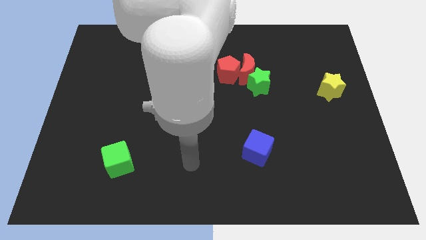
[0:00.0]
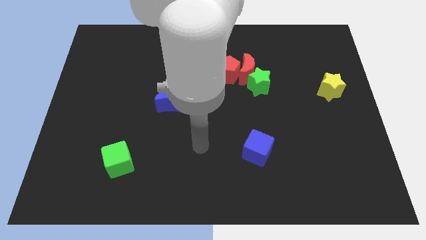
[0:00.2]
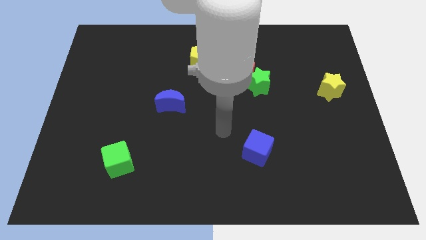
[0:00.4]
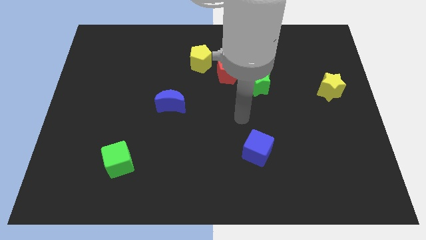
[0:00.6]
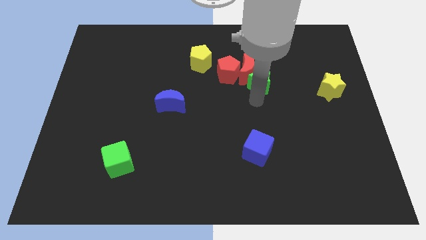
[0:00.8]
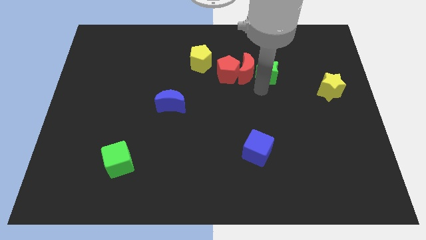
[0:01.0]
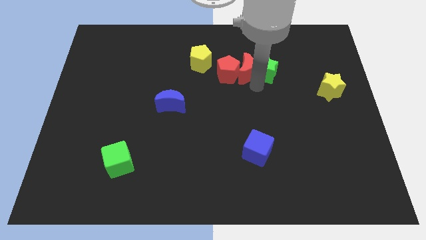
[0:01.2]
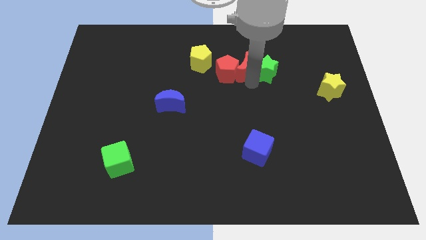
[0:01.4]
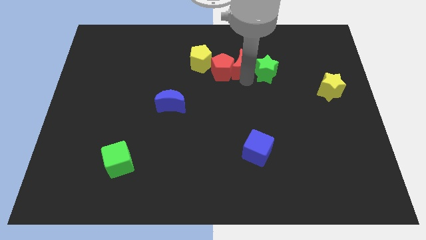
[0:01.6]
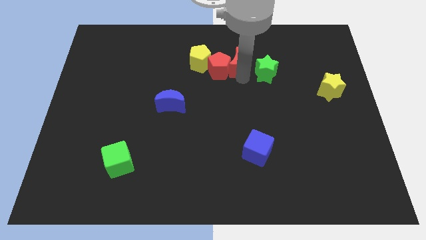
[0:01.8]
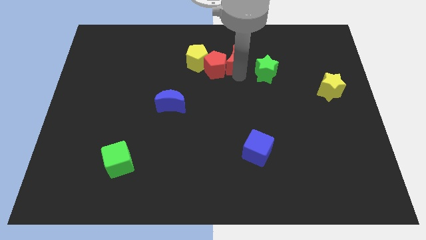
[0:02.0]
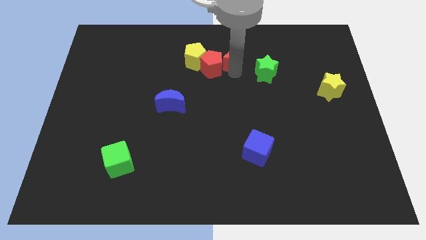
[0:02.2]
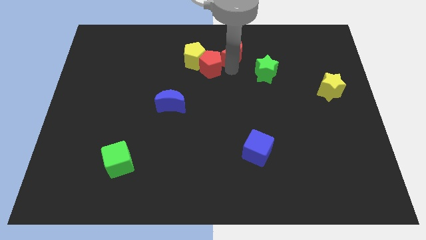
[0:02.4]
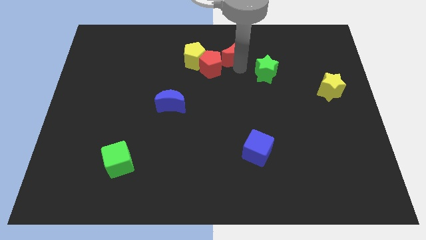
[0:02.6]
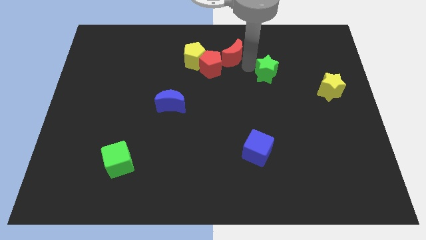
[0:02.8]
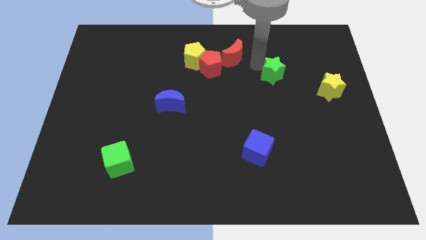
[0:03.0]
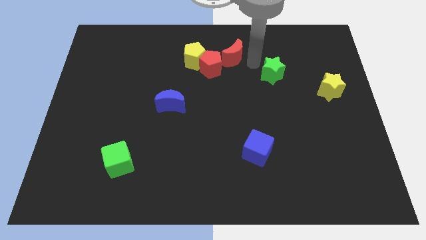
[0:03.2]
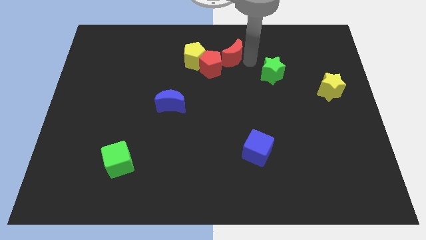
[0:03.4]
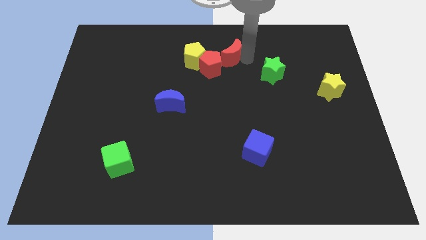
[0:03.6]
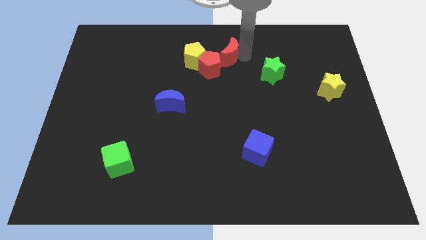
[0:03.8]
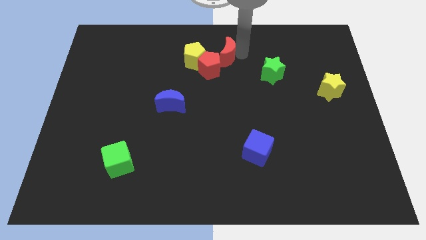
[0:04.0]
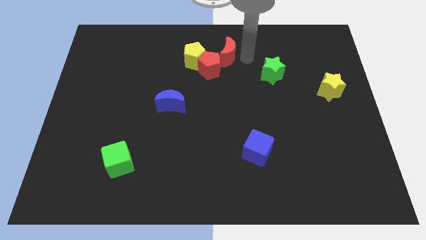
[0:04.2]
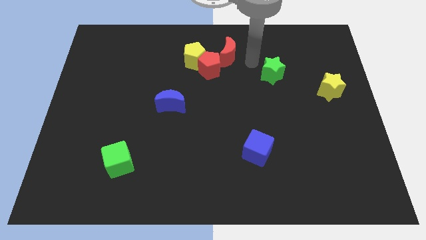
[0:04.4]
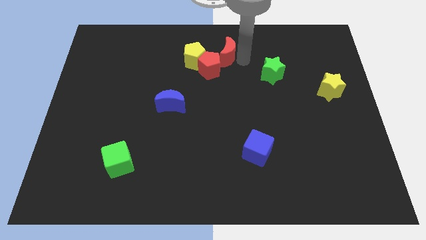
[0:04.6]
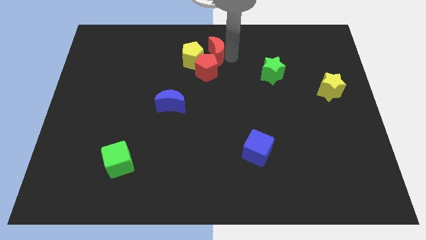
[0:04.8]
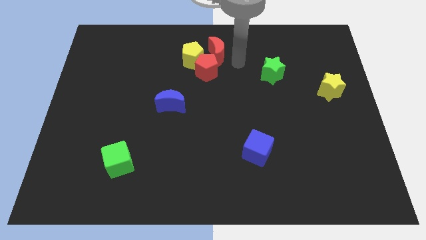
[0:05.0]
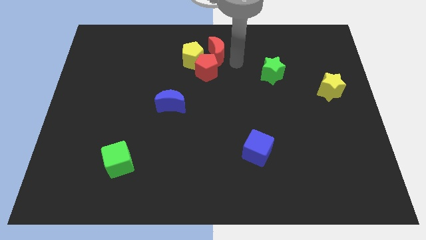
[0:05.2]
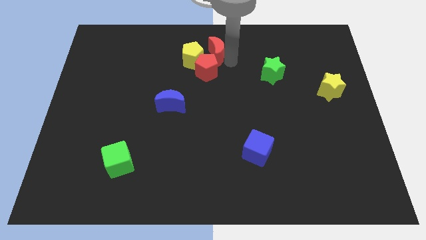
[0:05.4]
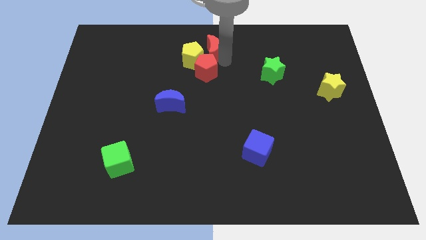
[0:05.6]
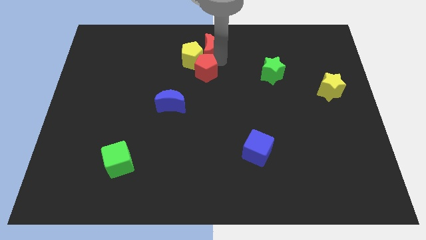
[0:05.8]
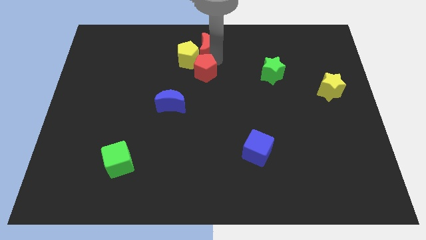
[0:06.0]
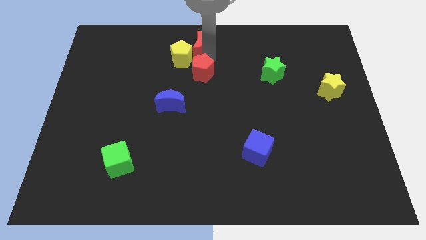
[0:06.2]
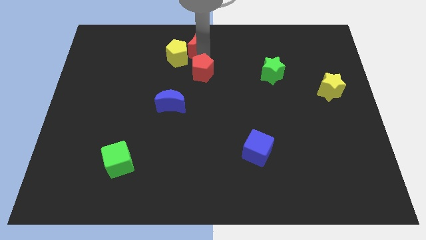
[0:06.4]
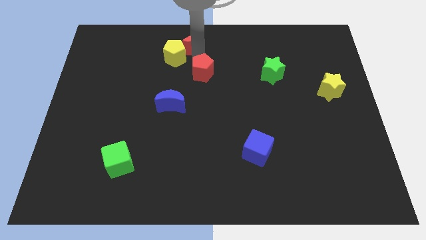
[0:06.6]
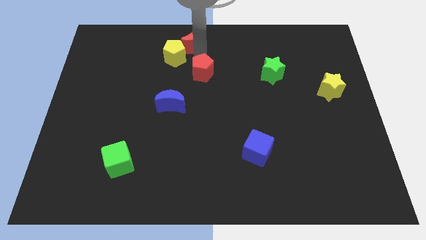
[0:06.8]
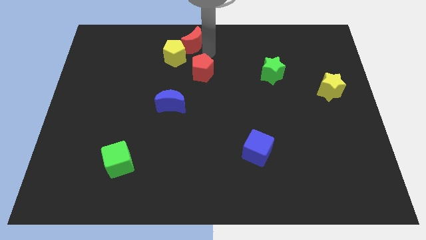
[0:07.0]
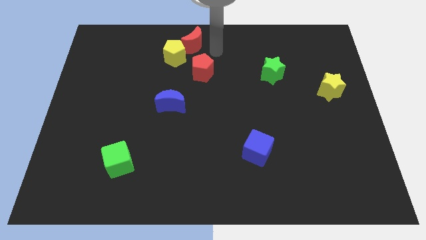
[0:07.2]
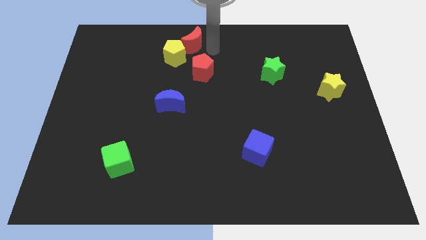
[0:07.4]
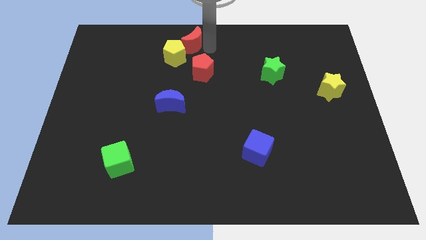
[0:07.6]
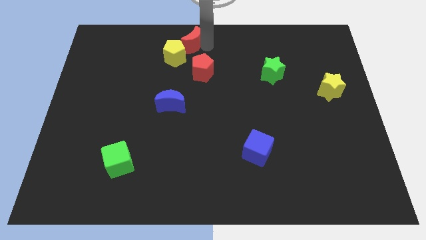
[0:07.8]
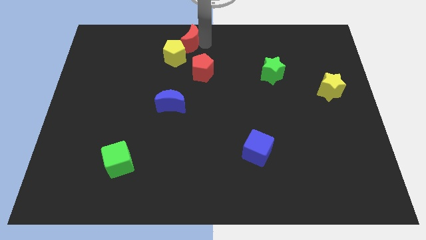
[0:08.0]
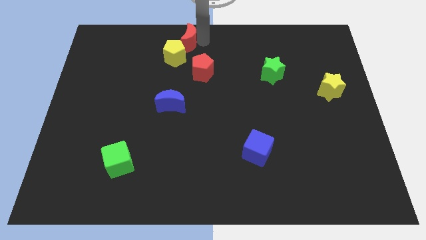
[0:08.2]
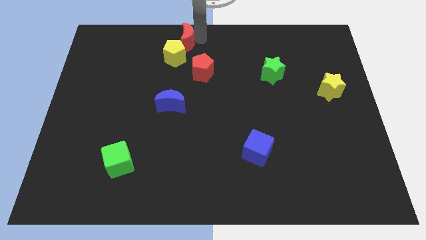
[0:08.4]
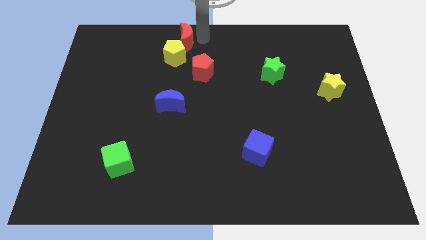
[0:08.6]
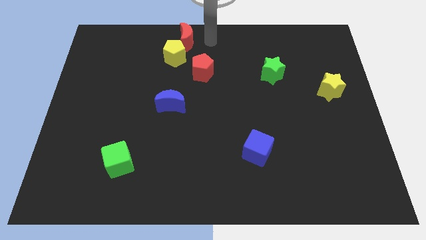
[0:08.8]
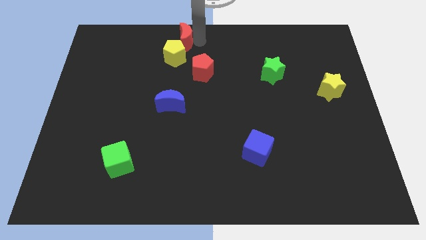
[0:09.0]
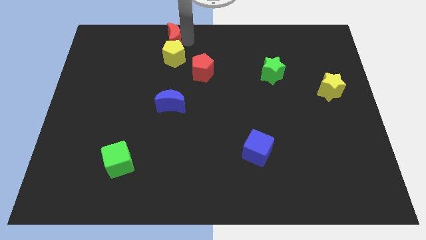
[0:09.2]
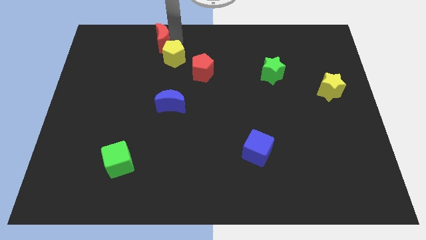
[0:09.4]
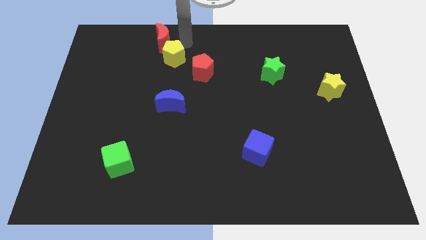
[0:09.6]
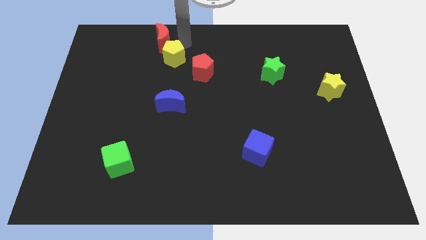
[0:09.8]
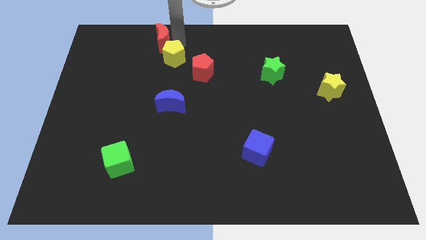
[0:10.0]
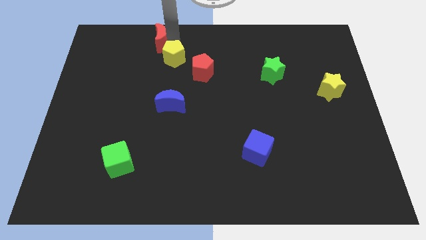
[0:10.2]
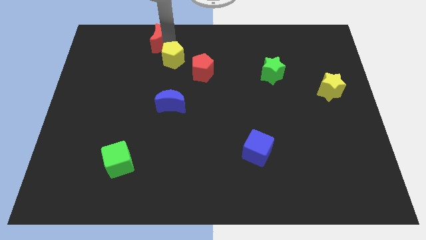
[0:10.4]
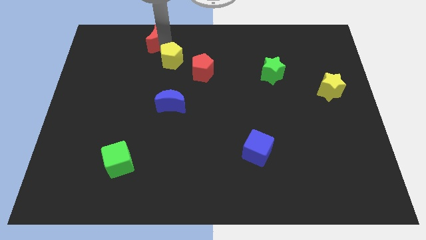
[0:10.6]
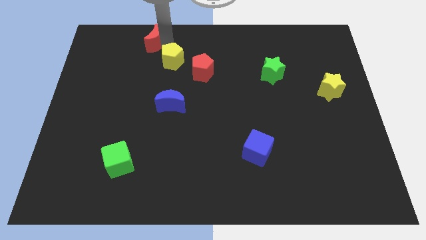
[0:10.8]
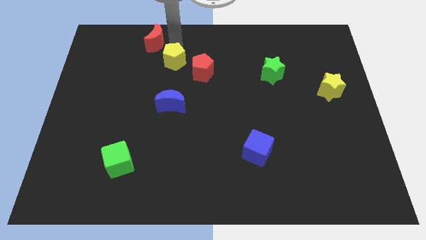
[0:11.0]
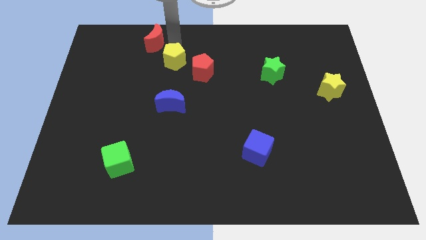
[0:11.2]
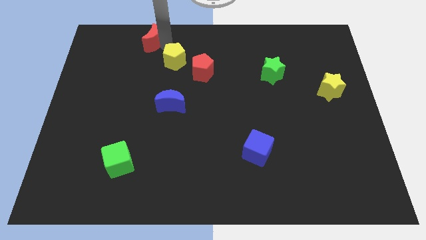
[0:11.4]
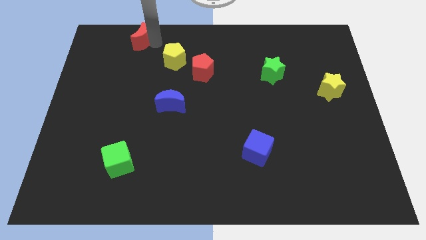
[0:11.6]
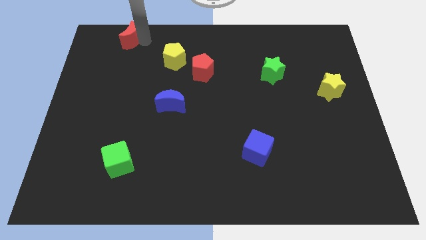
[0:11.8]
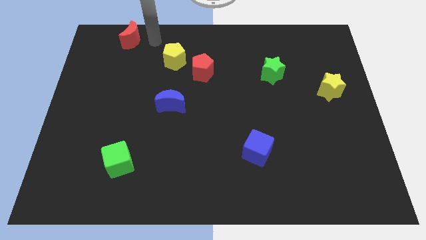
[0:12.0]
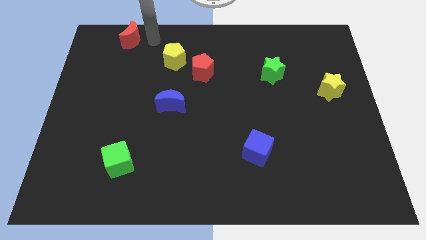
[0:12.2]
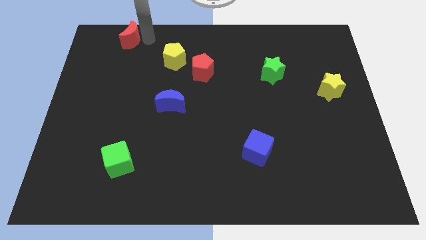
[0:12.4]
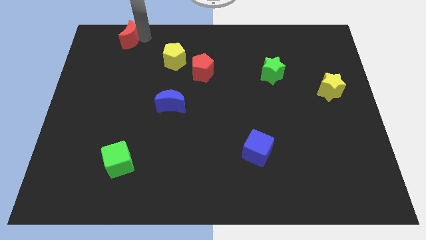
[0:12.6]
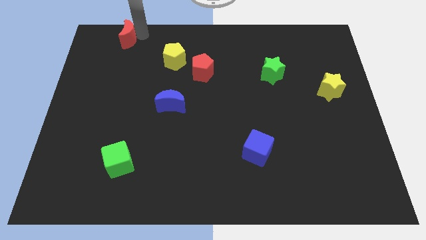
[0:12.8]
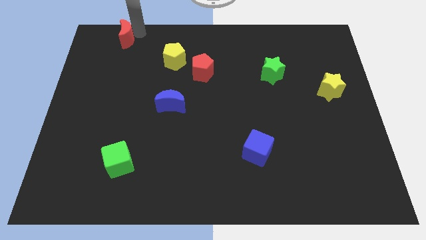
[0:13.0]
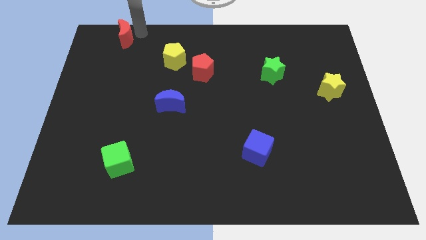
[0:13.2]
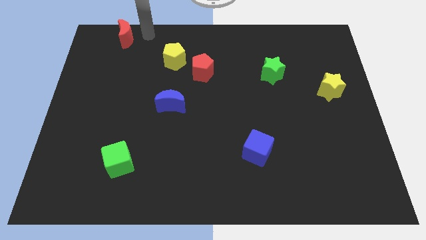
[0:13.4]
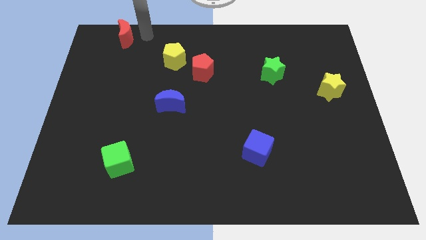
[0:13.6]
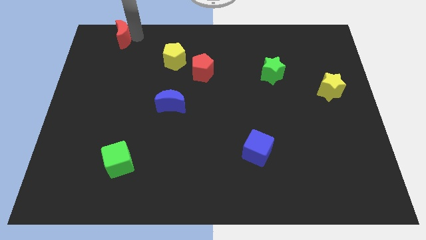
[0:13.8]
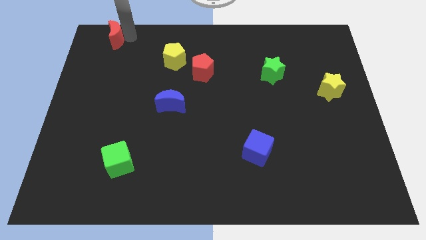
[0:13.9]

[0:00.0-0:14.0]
slide the red moon to the top left of the board
